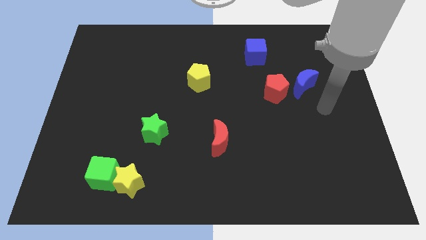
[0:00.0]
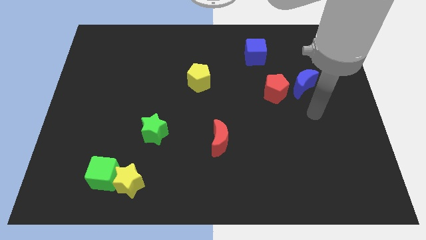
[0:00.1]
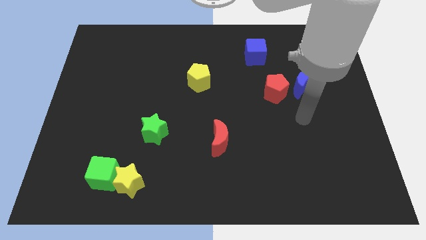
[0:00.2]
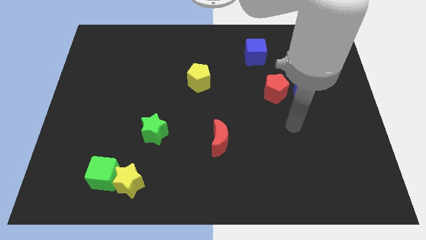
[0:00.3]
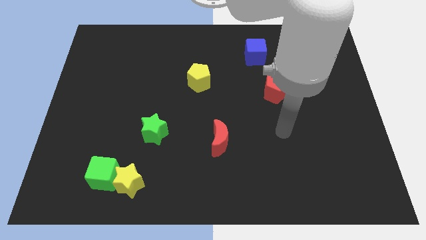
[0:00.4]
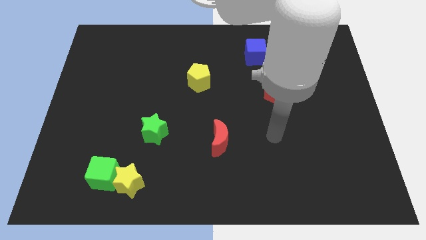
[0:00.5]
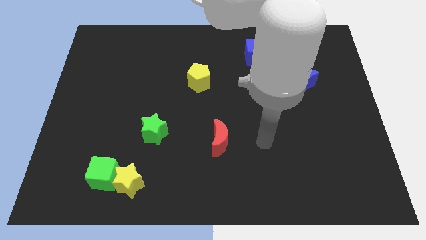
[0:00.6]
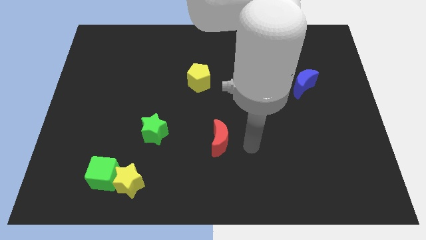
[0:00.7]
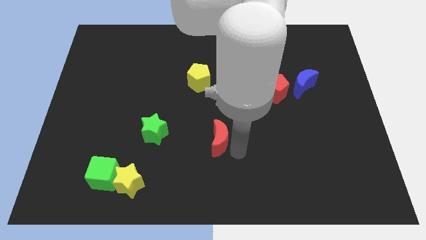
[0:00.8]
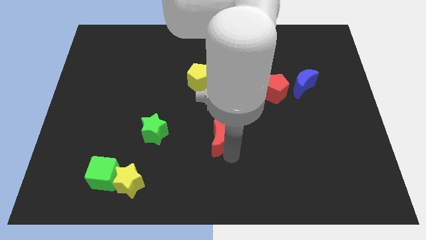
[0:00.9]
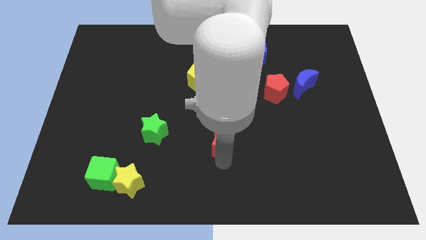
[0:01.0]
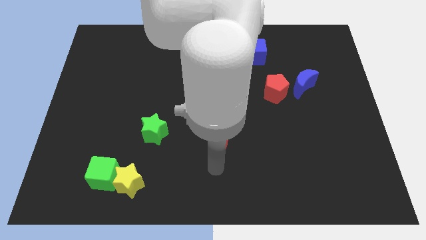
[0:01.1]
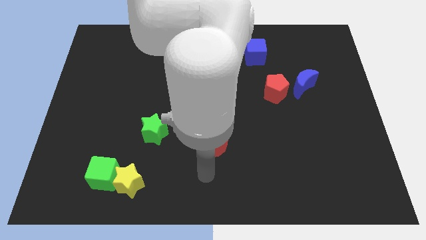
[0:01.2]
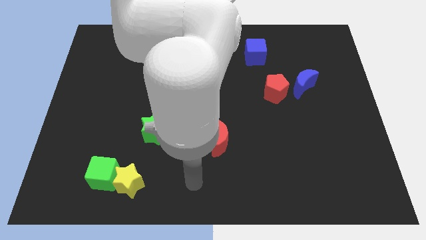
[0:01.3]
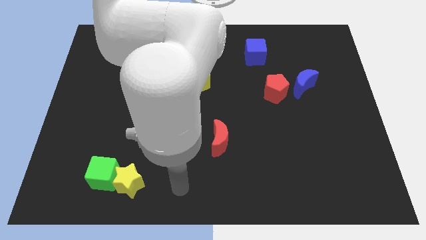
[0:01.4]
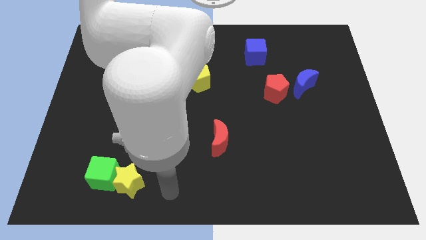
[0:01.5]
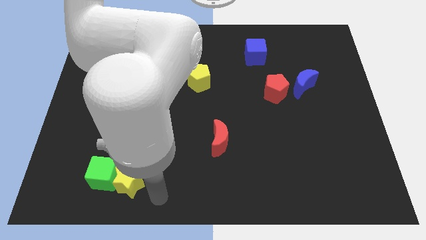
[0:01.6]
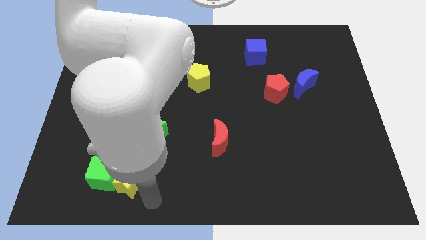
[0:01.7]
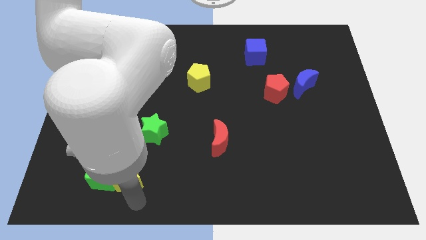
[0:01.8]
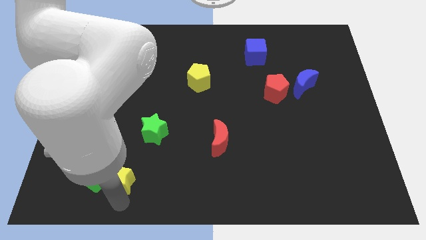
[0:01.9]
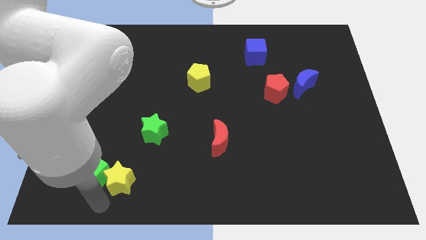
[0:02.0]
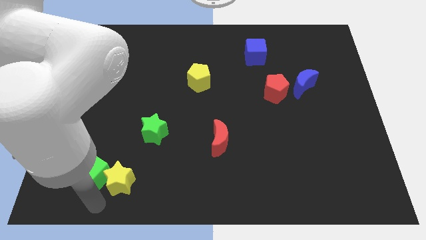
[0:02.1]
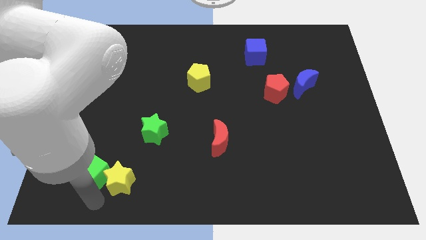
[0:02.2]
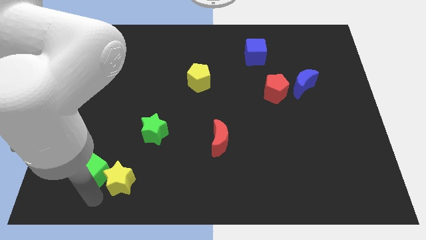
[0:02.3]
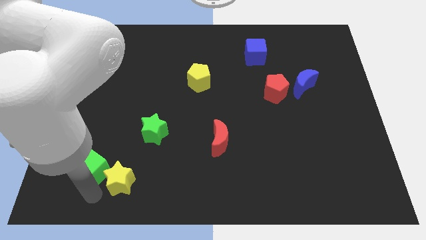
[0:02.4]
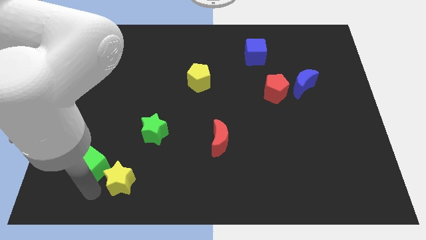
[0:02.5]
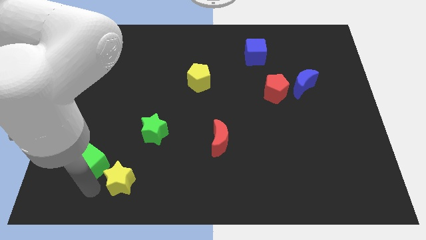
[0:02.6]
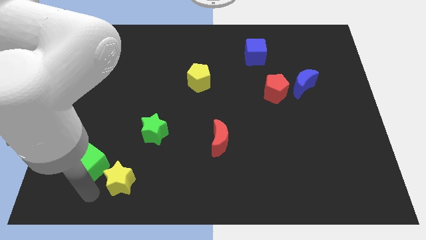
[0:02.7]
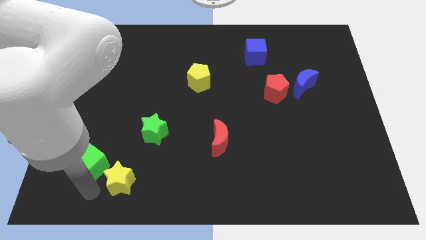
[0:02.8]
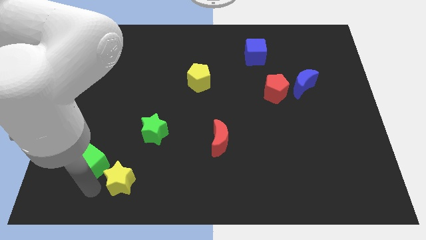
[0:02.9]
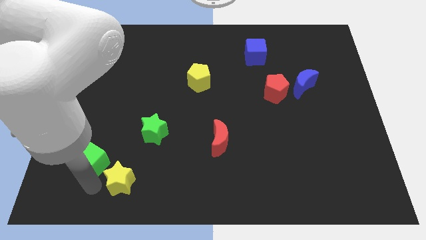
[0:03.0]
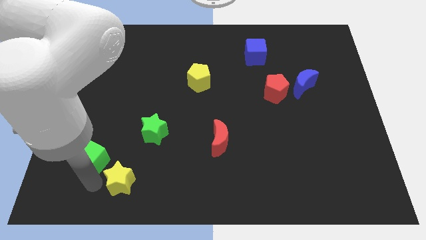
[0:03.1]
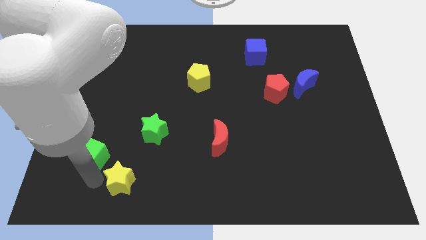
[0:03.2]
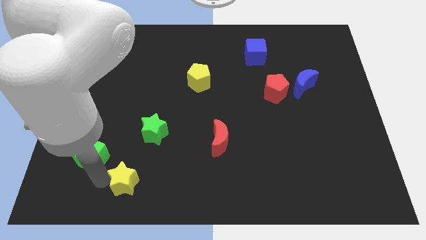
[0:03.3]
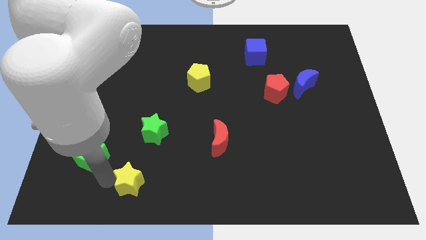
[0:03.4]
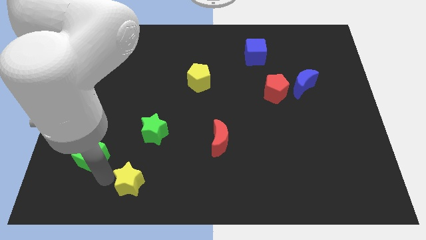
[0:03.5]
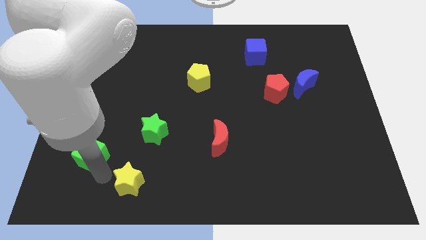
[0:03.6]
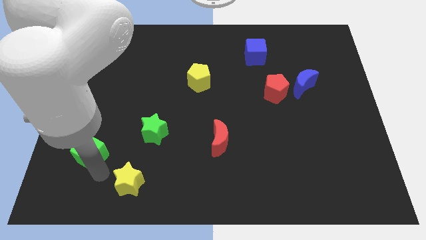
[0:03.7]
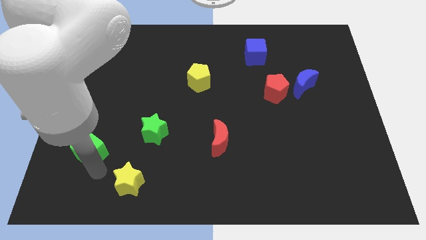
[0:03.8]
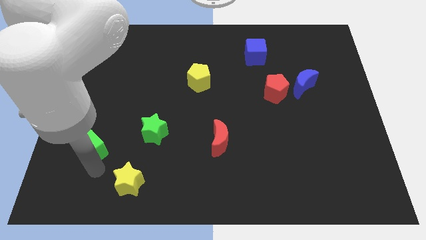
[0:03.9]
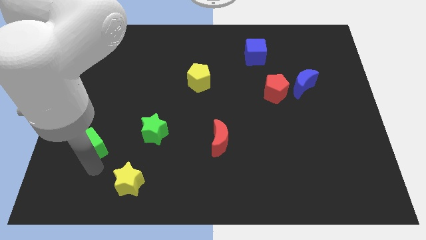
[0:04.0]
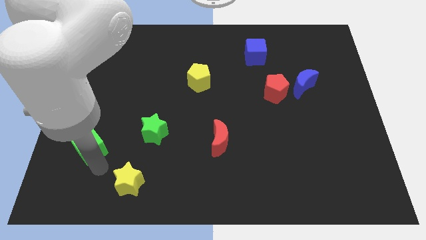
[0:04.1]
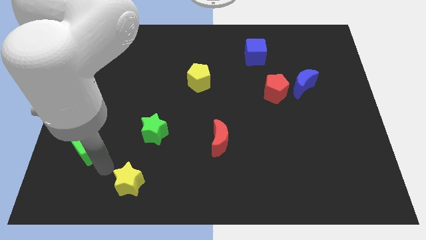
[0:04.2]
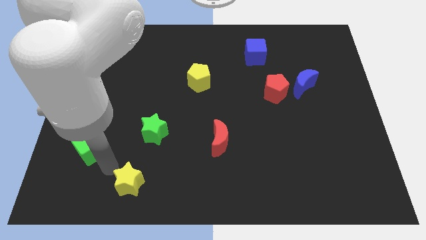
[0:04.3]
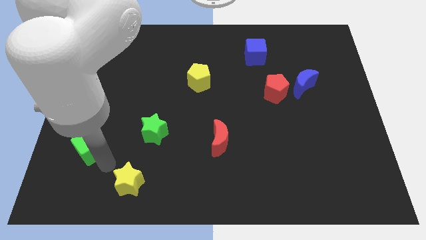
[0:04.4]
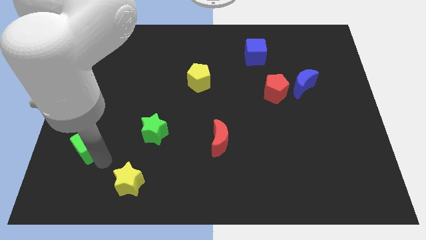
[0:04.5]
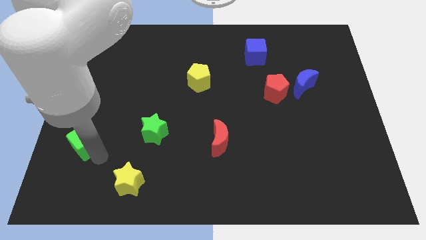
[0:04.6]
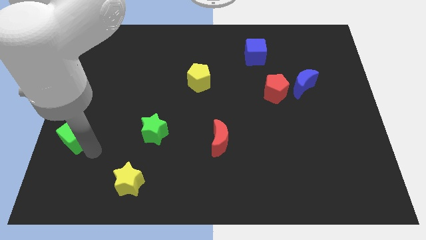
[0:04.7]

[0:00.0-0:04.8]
slide the green cube to the left side of the board

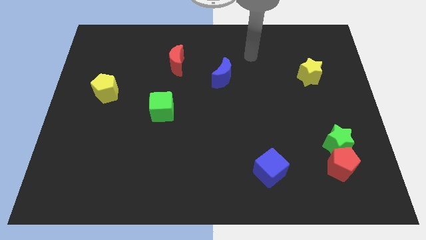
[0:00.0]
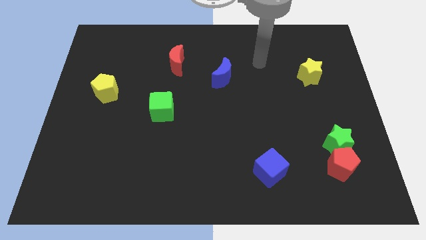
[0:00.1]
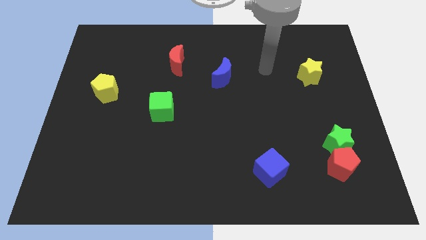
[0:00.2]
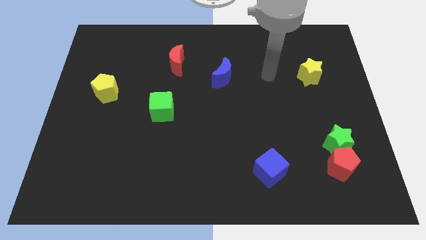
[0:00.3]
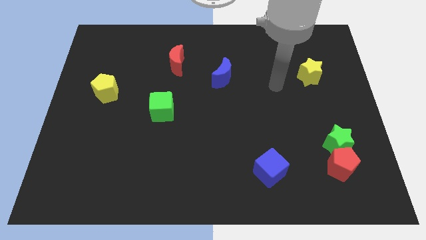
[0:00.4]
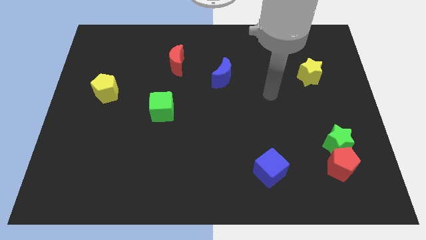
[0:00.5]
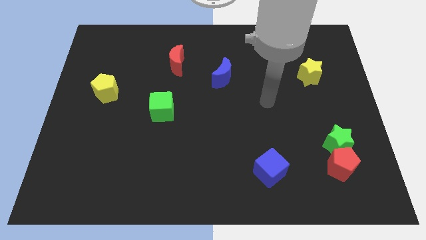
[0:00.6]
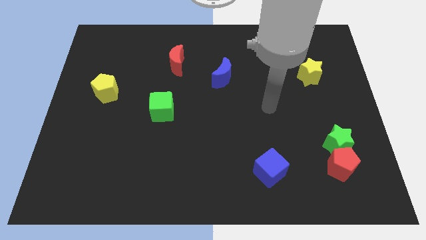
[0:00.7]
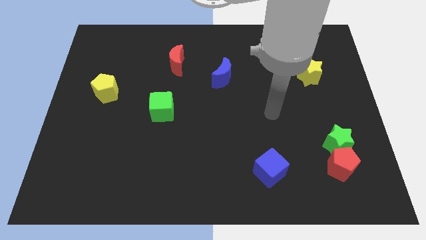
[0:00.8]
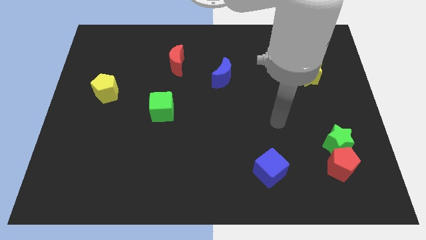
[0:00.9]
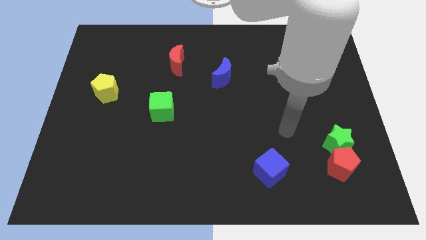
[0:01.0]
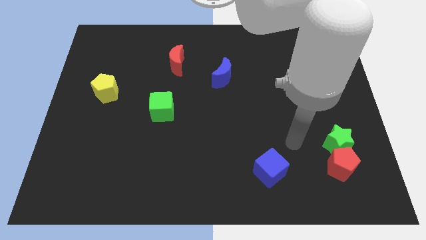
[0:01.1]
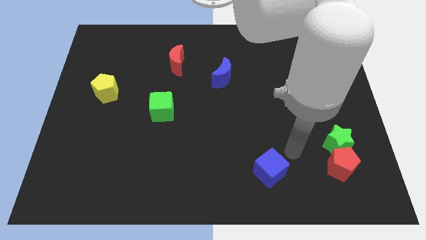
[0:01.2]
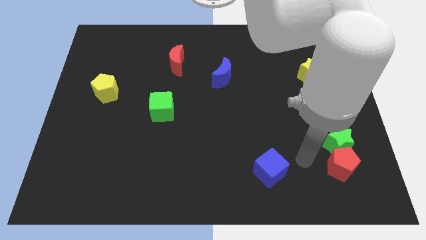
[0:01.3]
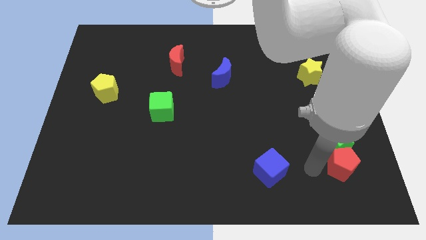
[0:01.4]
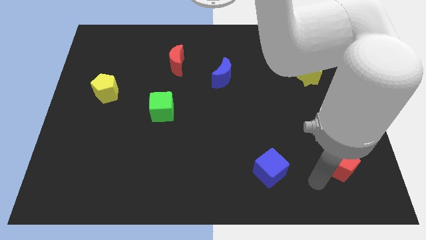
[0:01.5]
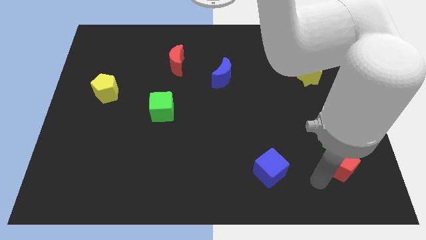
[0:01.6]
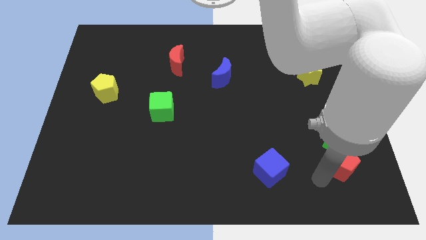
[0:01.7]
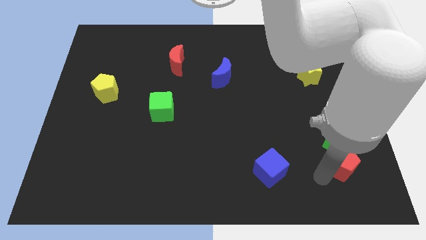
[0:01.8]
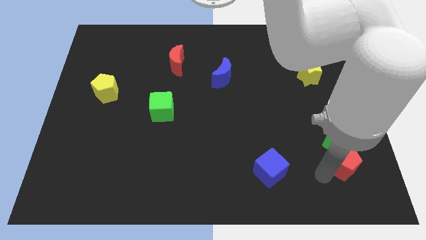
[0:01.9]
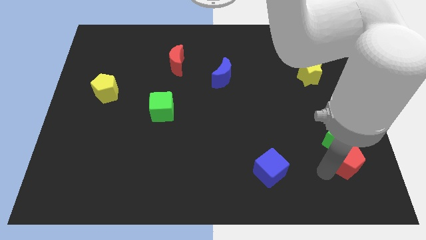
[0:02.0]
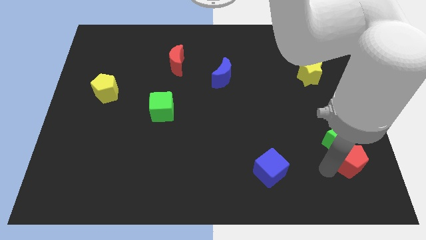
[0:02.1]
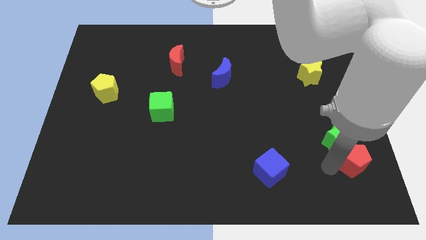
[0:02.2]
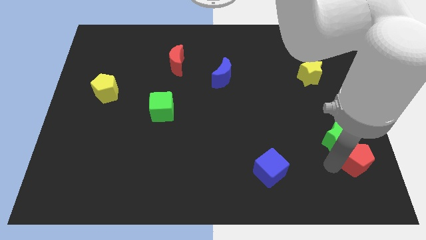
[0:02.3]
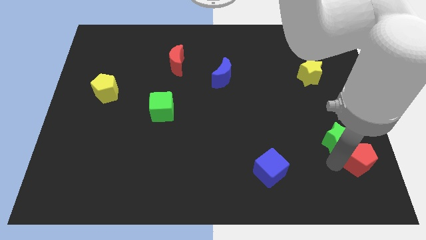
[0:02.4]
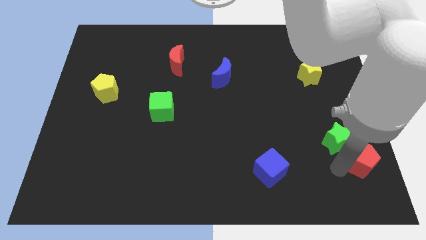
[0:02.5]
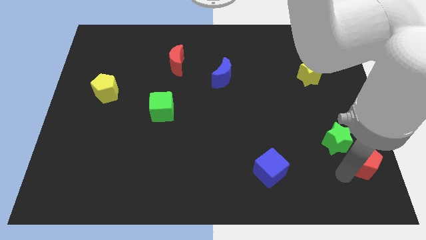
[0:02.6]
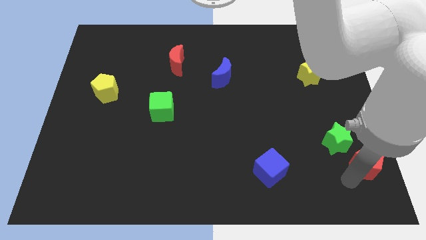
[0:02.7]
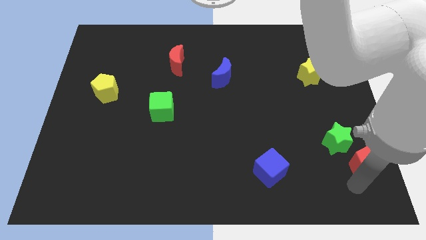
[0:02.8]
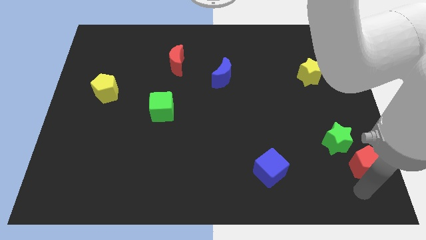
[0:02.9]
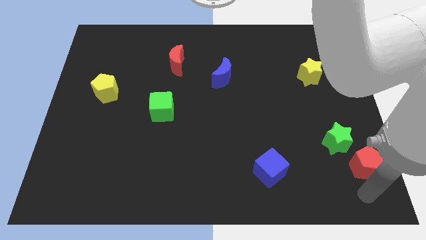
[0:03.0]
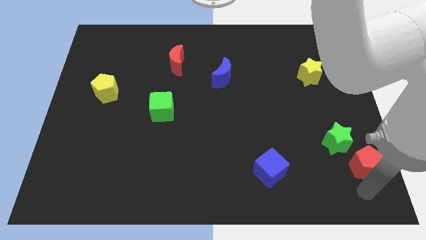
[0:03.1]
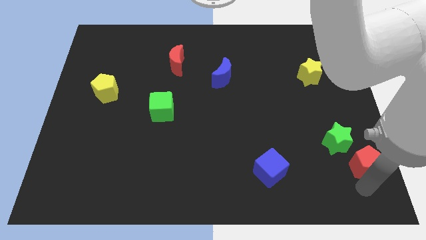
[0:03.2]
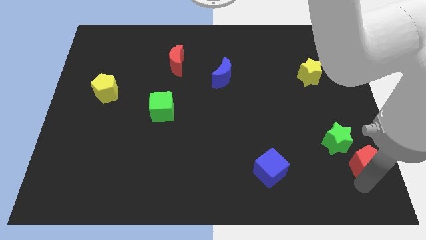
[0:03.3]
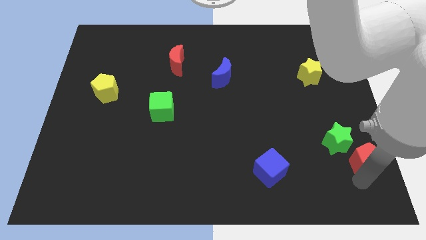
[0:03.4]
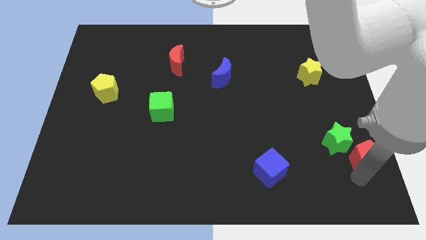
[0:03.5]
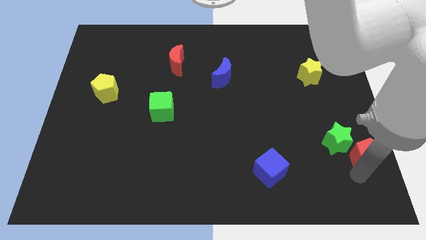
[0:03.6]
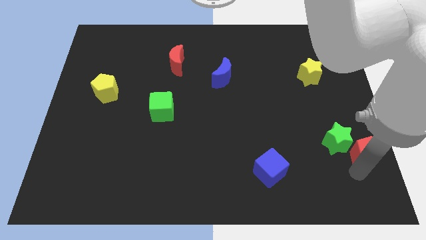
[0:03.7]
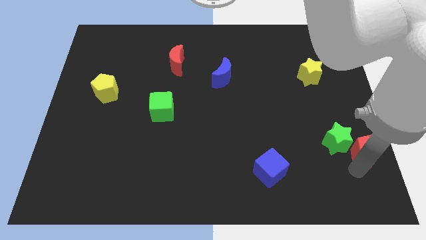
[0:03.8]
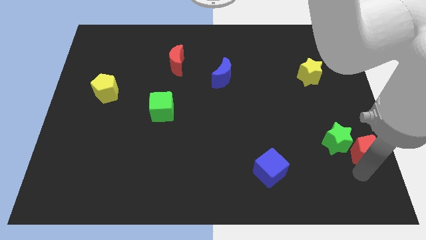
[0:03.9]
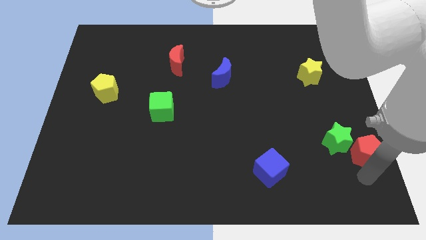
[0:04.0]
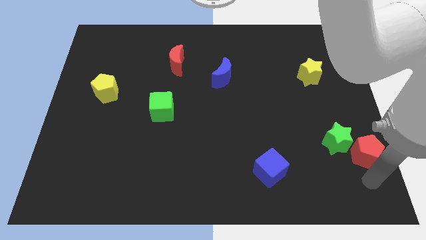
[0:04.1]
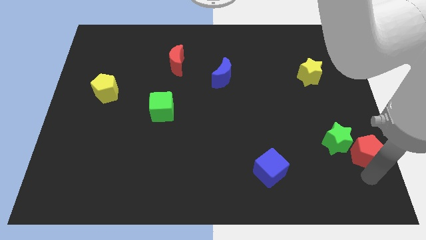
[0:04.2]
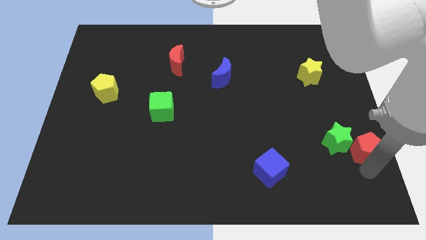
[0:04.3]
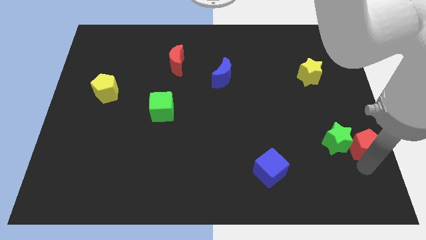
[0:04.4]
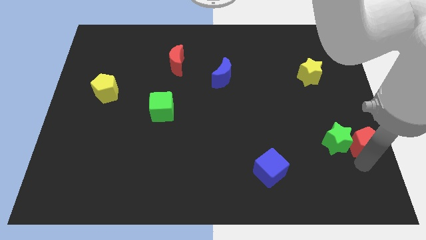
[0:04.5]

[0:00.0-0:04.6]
slide the red pentagon to the center right
